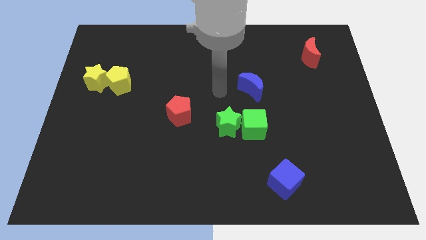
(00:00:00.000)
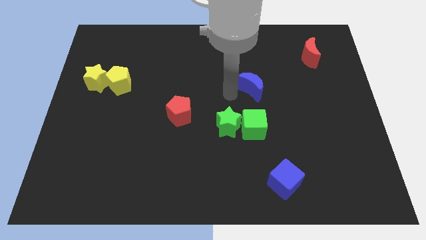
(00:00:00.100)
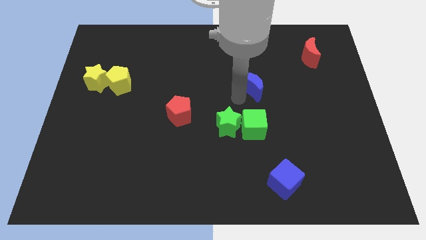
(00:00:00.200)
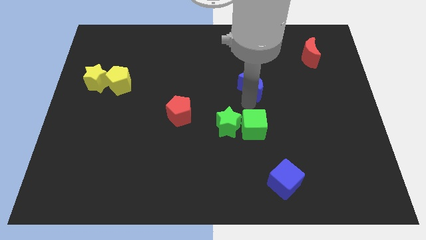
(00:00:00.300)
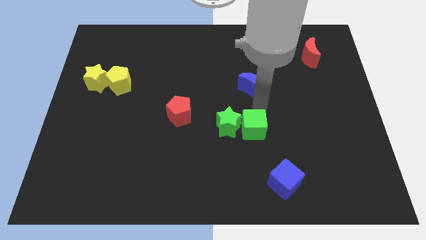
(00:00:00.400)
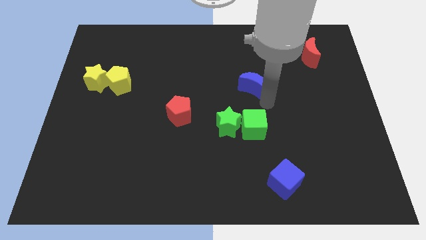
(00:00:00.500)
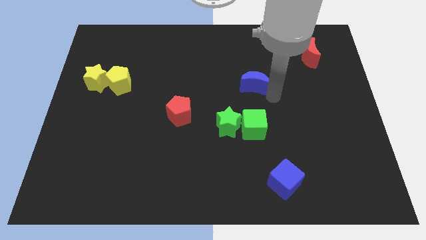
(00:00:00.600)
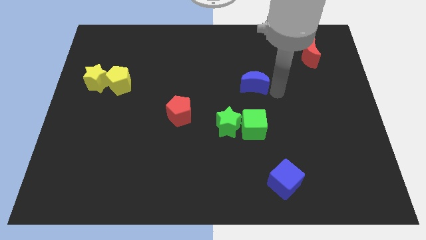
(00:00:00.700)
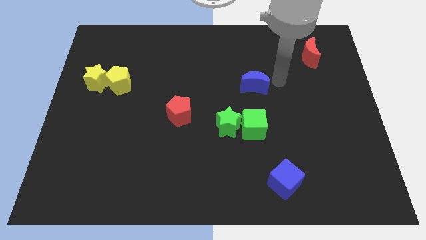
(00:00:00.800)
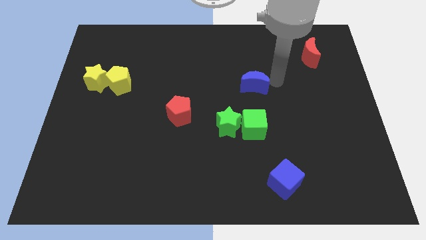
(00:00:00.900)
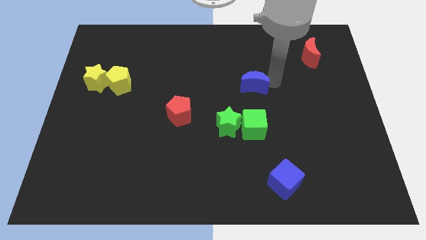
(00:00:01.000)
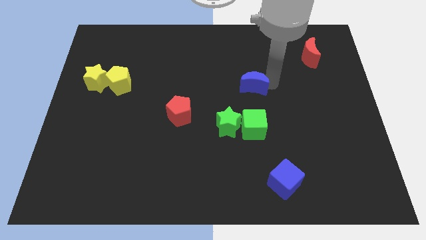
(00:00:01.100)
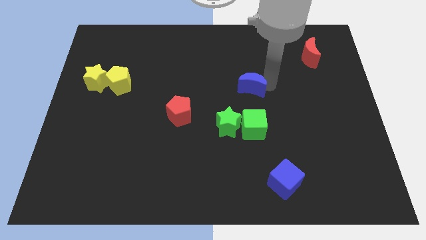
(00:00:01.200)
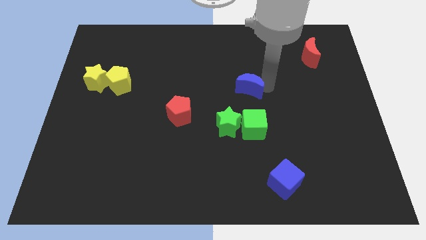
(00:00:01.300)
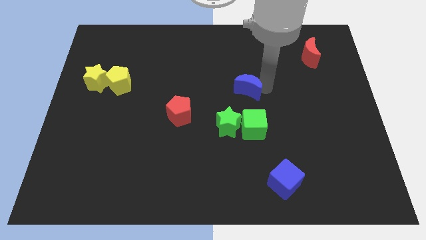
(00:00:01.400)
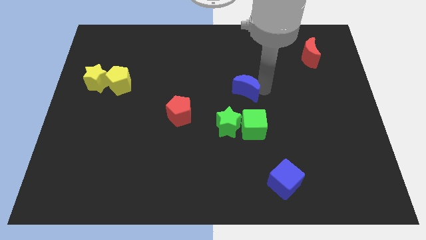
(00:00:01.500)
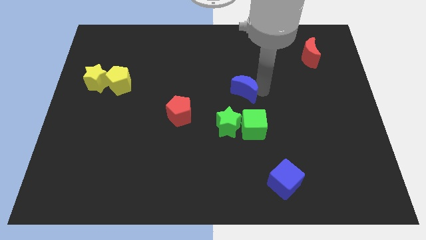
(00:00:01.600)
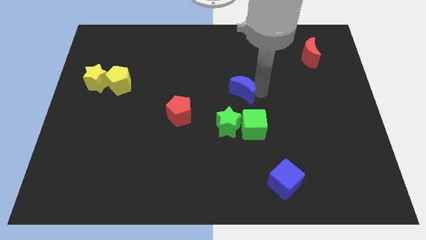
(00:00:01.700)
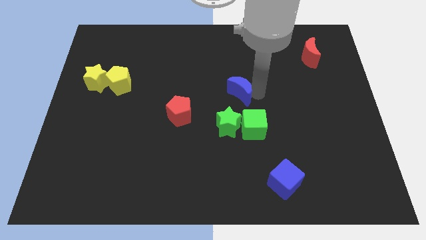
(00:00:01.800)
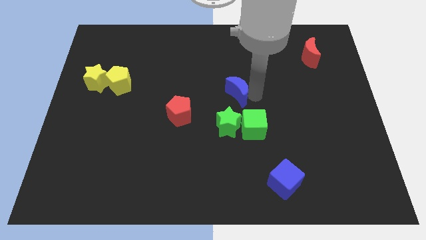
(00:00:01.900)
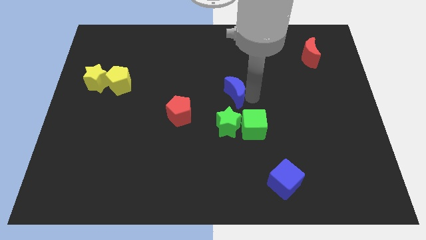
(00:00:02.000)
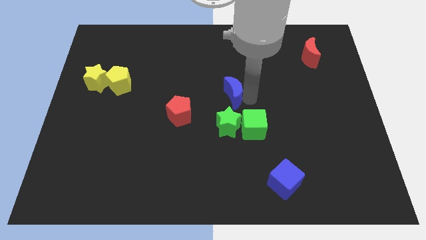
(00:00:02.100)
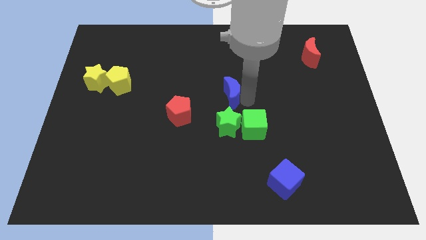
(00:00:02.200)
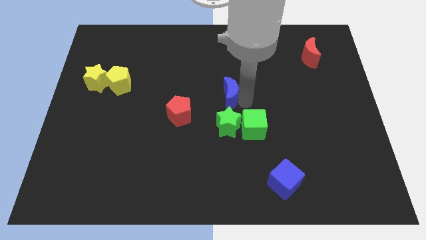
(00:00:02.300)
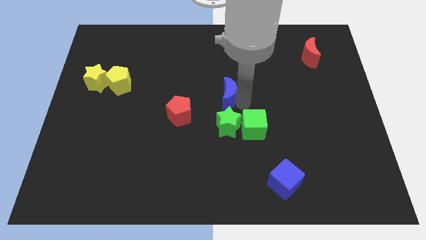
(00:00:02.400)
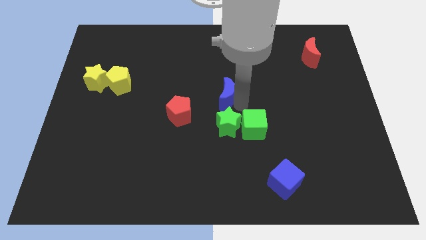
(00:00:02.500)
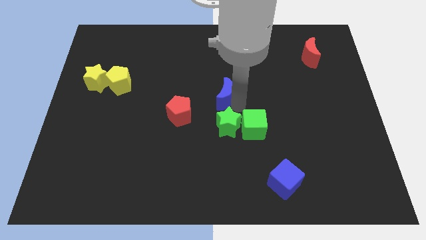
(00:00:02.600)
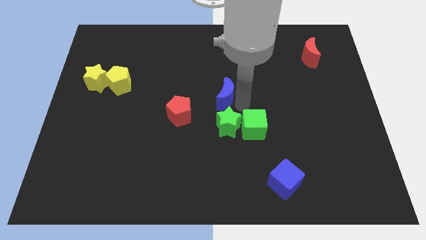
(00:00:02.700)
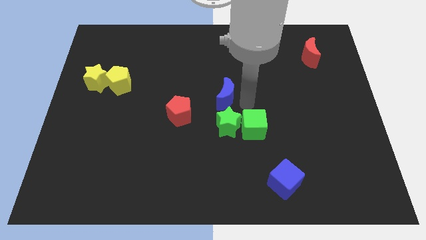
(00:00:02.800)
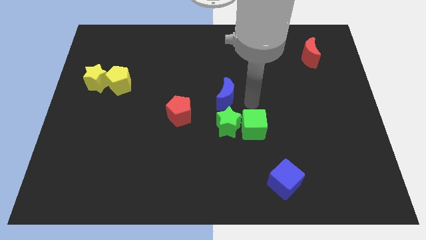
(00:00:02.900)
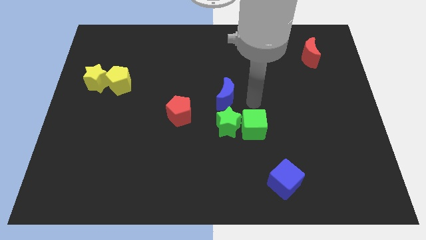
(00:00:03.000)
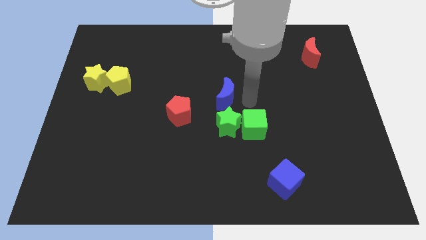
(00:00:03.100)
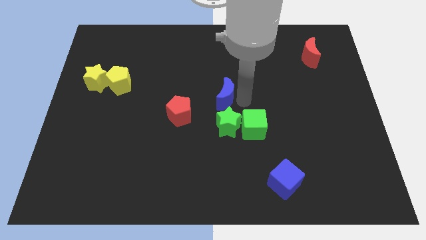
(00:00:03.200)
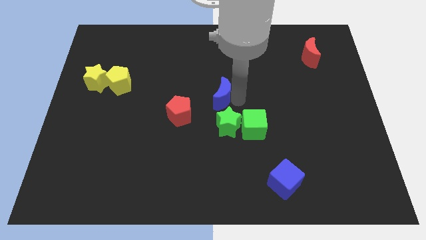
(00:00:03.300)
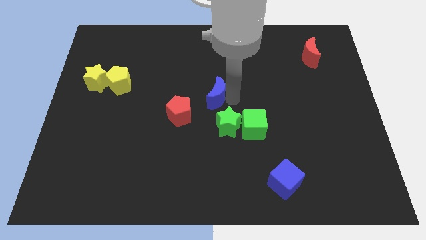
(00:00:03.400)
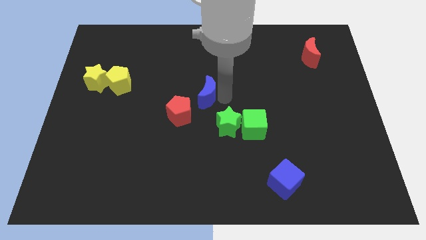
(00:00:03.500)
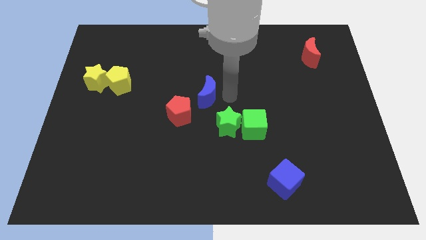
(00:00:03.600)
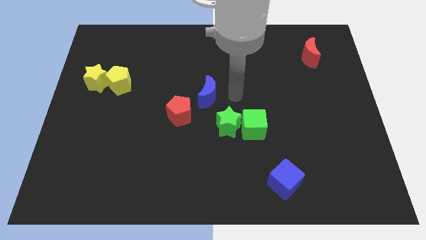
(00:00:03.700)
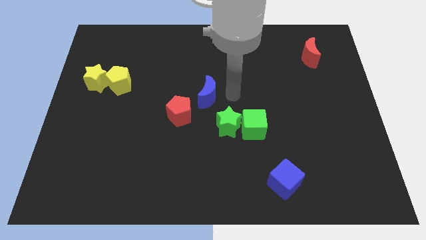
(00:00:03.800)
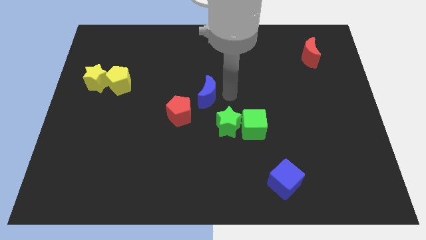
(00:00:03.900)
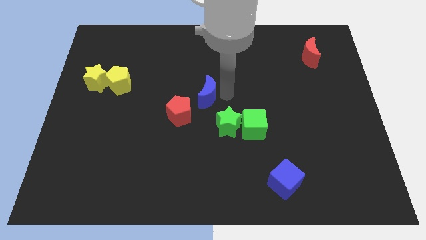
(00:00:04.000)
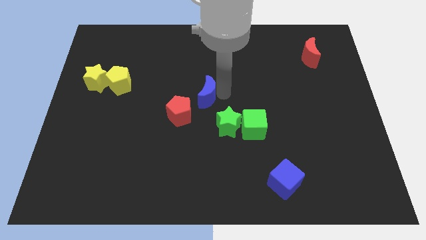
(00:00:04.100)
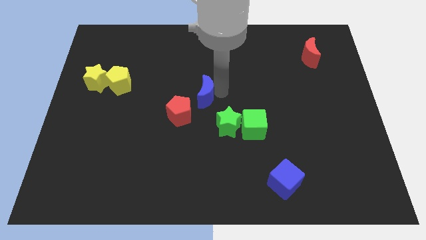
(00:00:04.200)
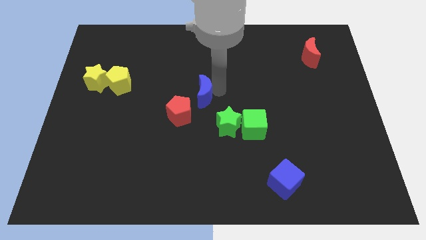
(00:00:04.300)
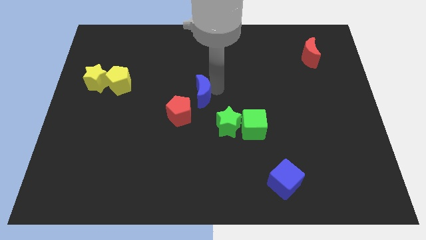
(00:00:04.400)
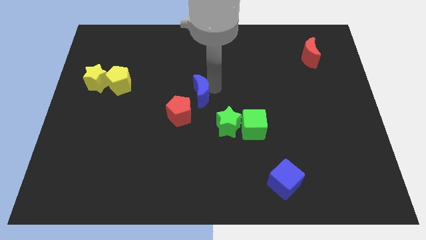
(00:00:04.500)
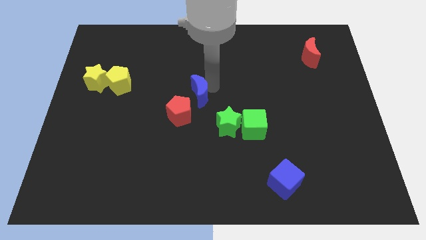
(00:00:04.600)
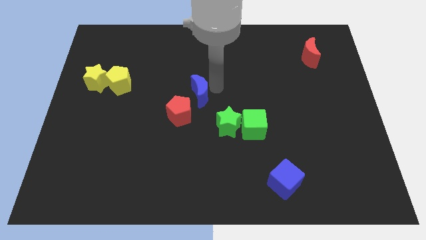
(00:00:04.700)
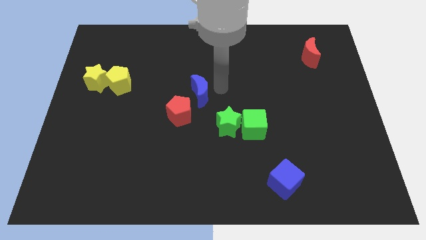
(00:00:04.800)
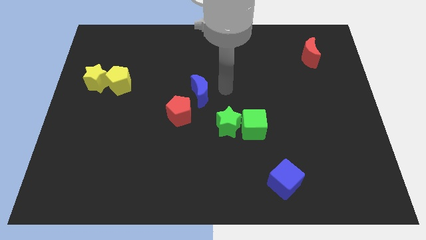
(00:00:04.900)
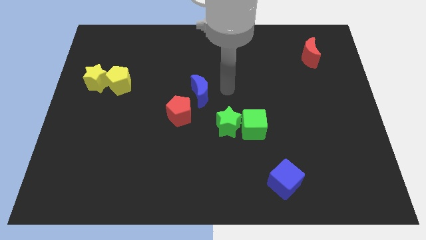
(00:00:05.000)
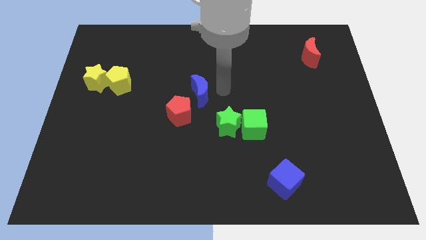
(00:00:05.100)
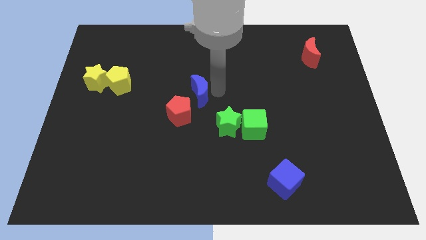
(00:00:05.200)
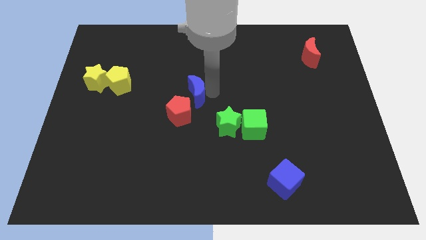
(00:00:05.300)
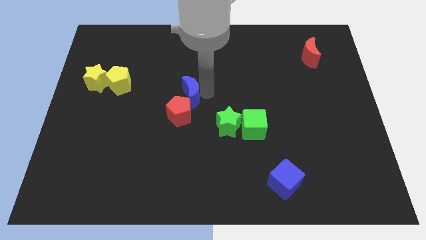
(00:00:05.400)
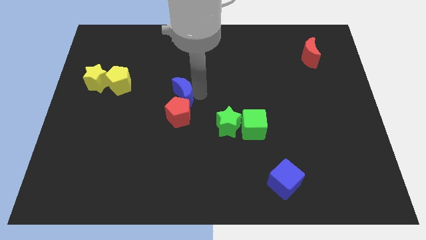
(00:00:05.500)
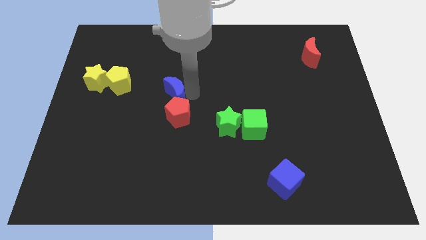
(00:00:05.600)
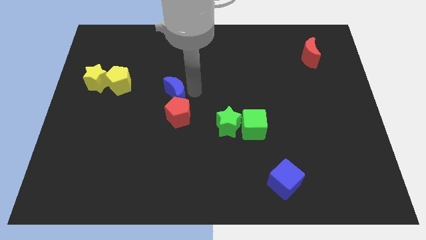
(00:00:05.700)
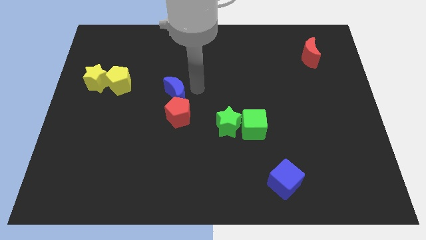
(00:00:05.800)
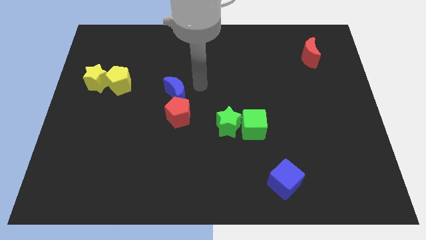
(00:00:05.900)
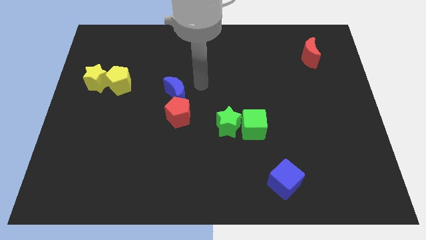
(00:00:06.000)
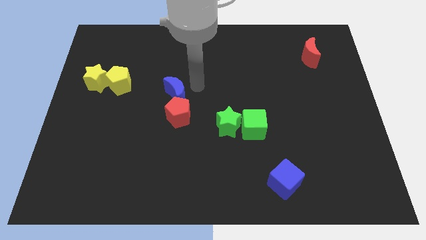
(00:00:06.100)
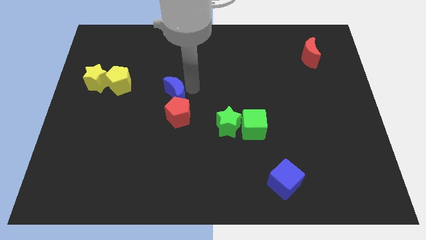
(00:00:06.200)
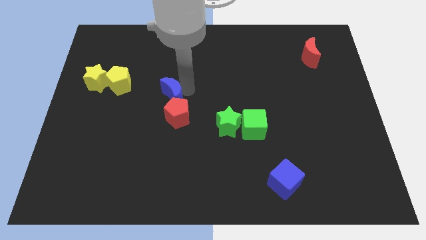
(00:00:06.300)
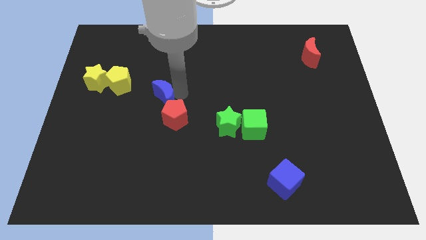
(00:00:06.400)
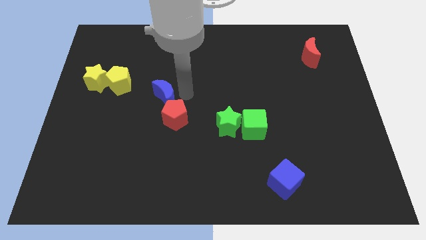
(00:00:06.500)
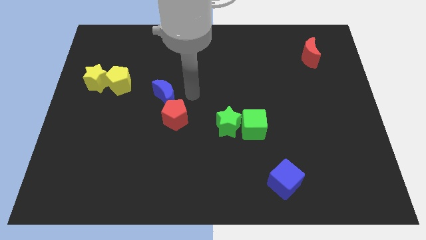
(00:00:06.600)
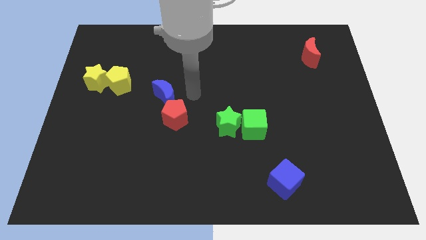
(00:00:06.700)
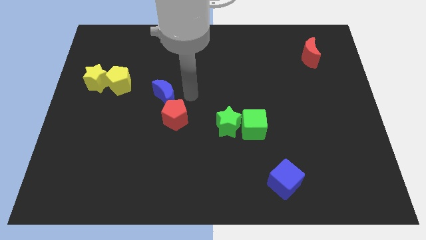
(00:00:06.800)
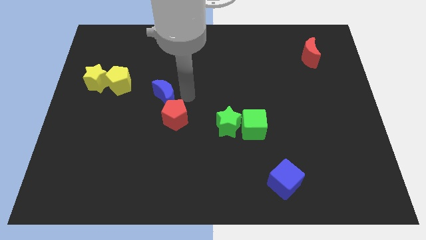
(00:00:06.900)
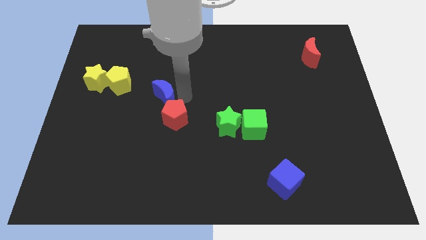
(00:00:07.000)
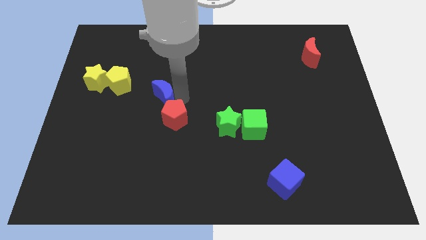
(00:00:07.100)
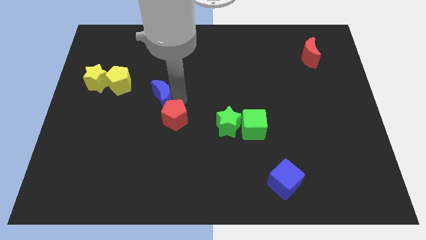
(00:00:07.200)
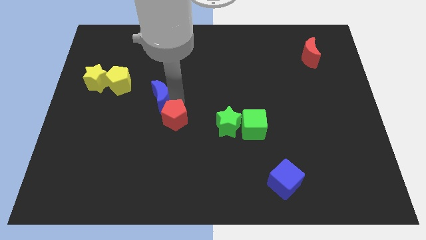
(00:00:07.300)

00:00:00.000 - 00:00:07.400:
push the blue moon to the bottom right side of the yellow pentagon
